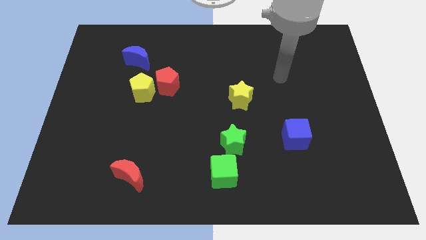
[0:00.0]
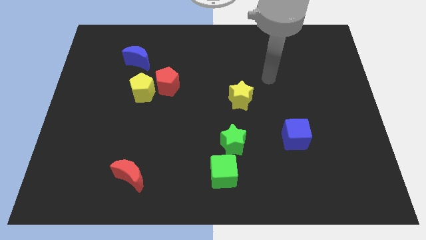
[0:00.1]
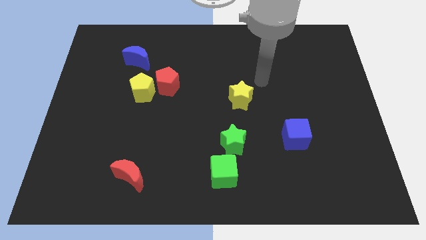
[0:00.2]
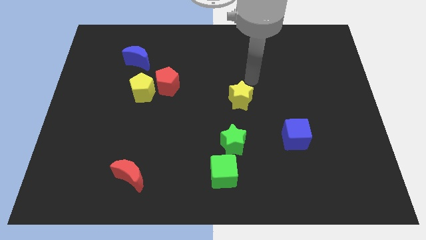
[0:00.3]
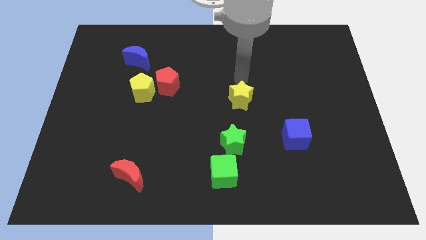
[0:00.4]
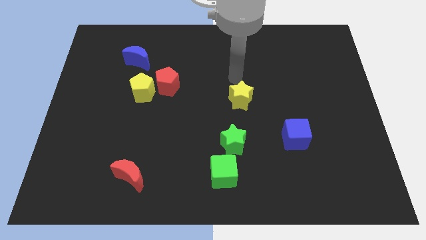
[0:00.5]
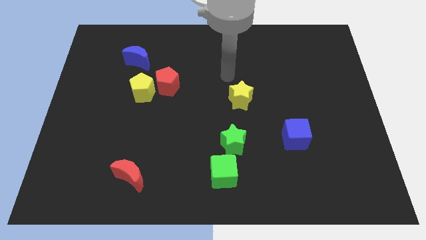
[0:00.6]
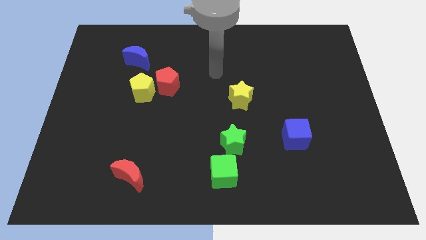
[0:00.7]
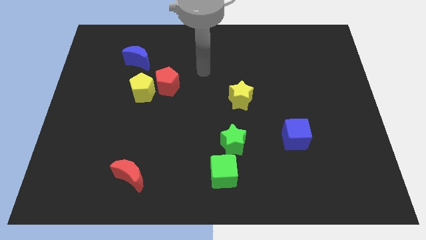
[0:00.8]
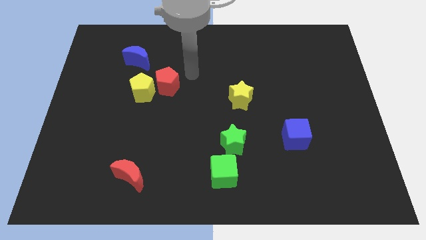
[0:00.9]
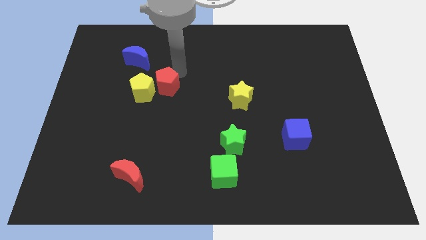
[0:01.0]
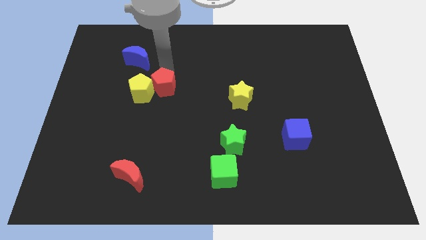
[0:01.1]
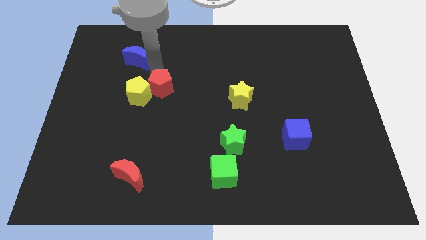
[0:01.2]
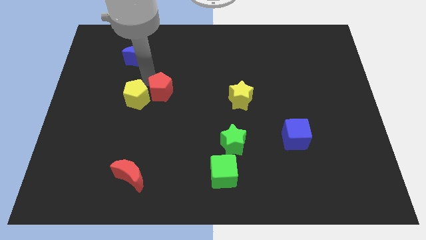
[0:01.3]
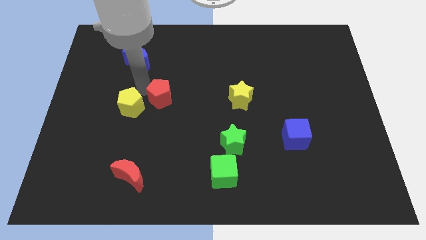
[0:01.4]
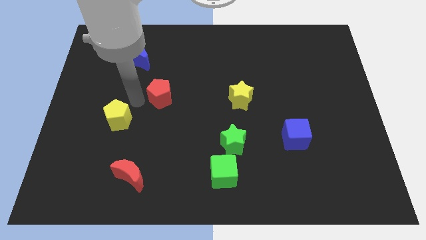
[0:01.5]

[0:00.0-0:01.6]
move the red pentagon away from the yellow pentagon

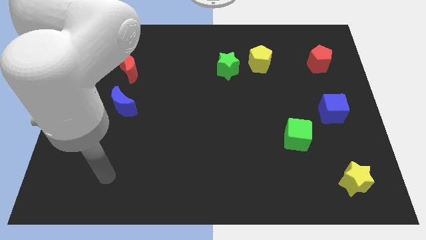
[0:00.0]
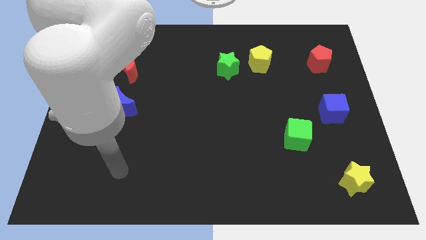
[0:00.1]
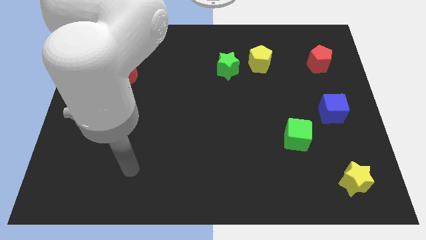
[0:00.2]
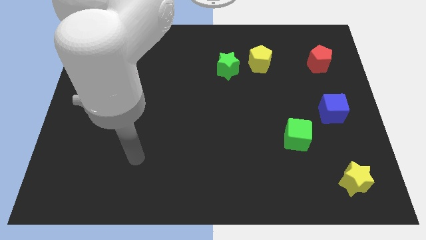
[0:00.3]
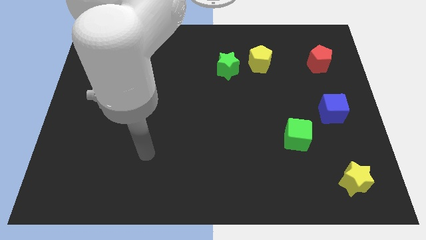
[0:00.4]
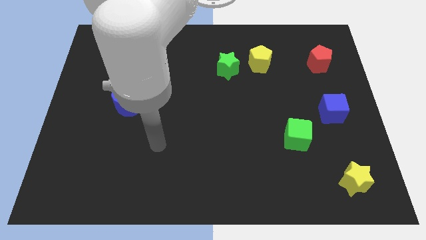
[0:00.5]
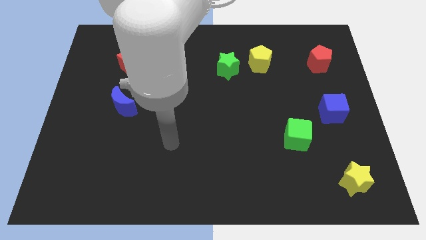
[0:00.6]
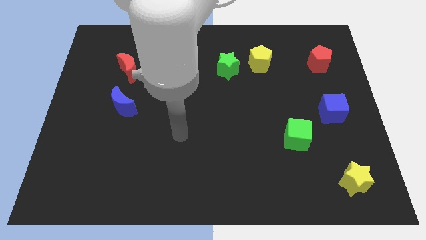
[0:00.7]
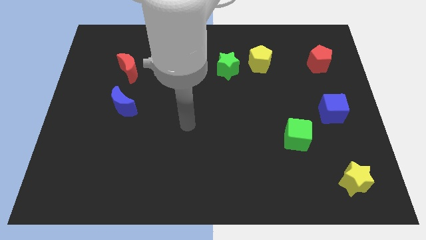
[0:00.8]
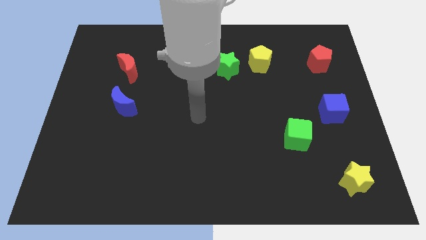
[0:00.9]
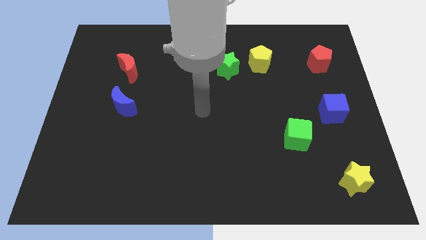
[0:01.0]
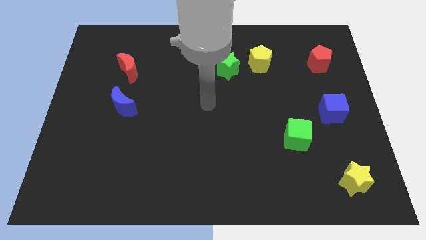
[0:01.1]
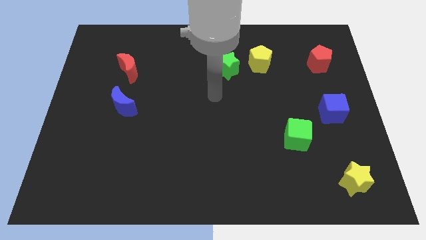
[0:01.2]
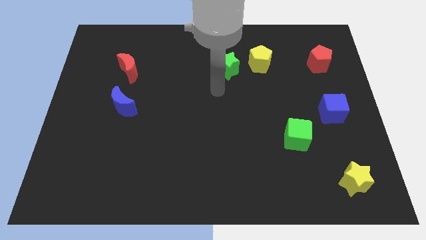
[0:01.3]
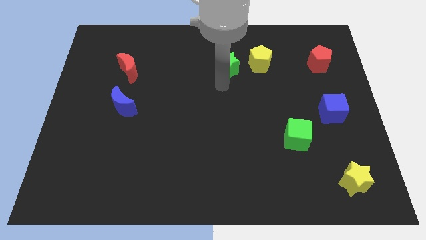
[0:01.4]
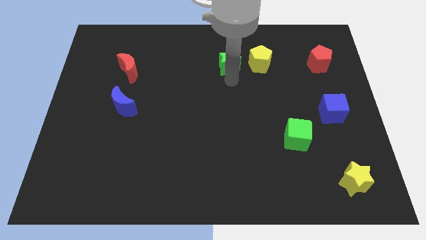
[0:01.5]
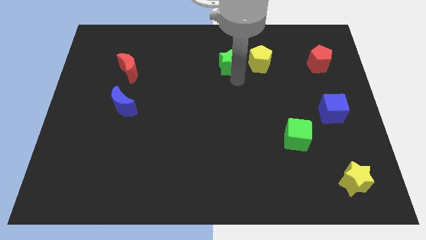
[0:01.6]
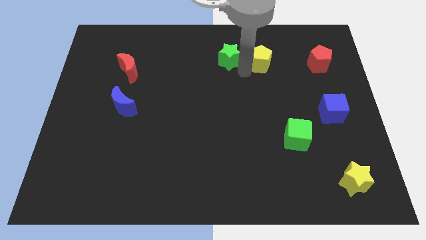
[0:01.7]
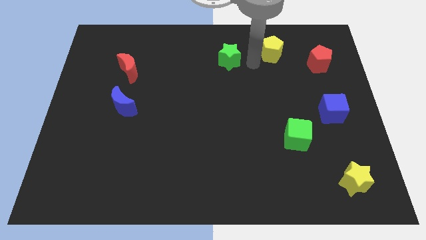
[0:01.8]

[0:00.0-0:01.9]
pull the green star apart from the yellow pentagon

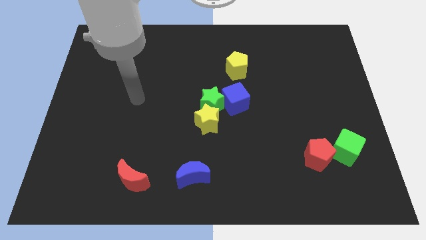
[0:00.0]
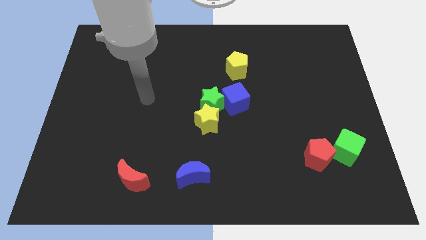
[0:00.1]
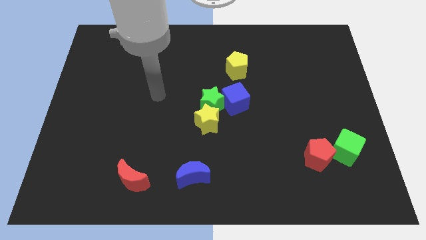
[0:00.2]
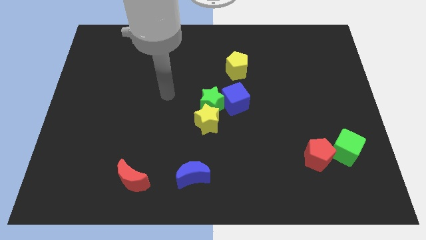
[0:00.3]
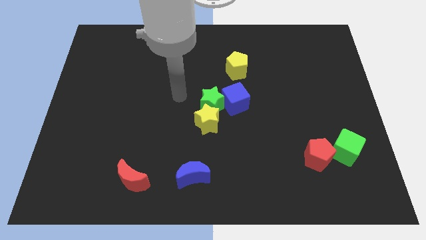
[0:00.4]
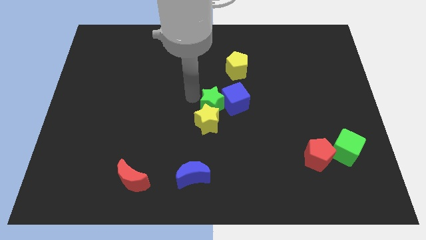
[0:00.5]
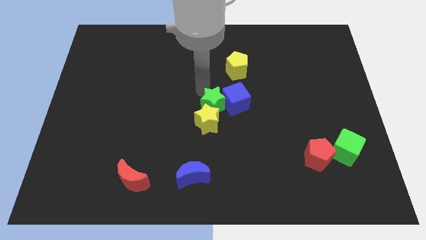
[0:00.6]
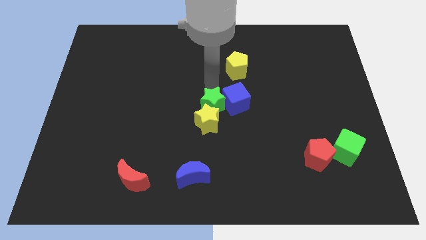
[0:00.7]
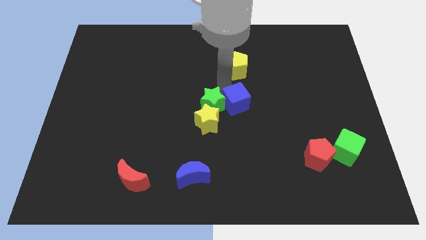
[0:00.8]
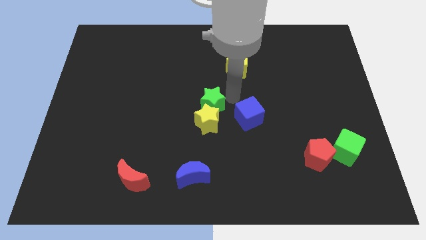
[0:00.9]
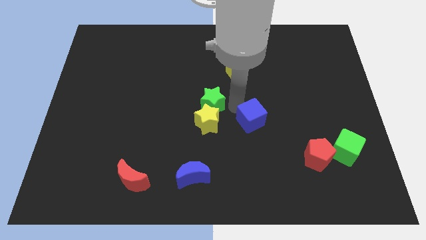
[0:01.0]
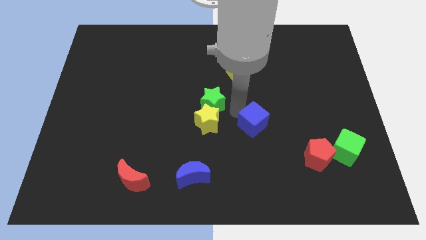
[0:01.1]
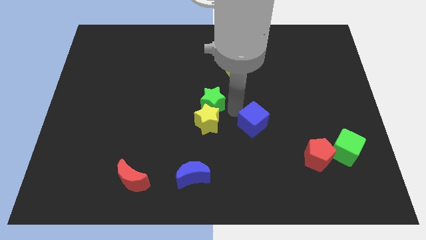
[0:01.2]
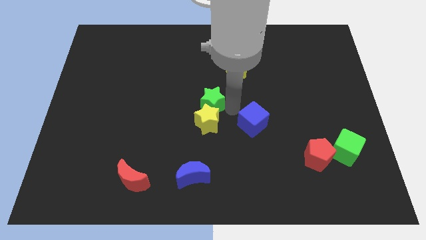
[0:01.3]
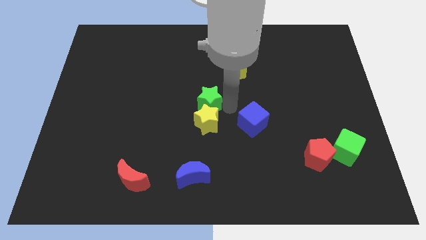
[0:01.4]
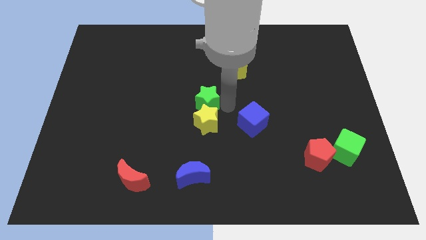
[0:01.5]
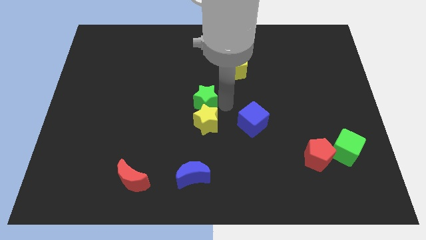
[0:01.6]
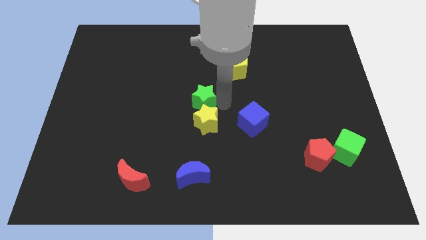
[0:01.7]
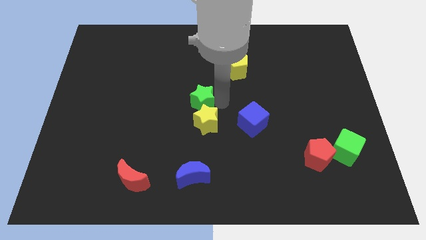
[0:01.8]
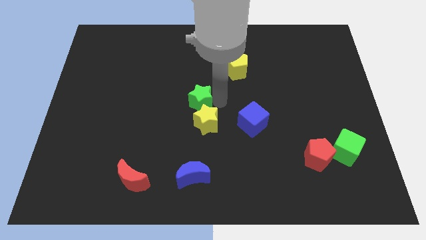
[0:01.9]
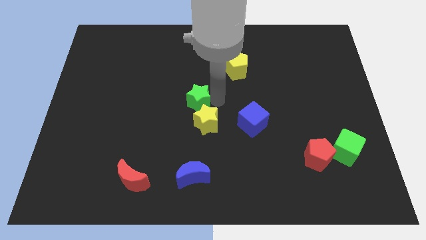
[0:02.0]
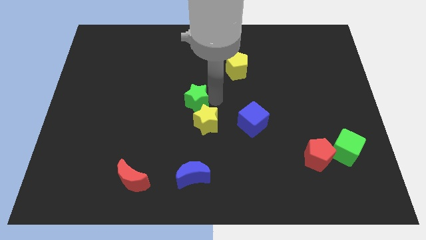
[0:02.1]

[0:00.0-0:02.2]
separate the green star from the yellow star and blue cube

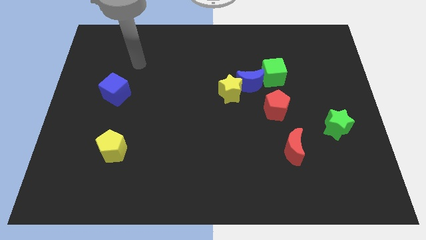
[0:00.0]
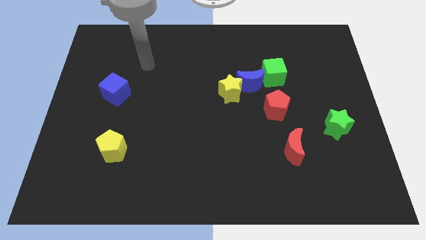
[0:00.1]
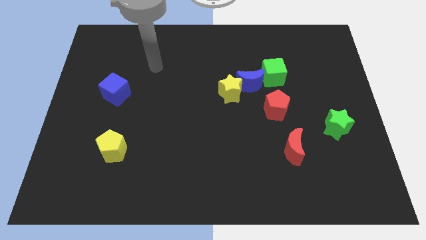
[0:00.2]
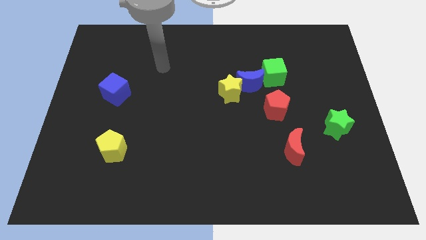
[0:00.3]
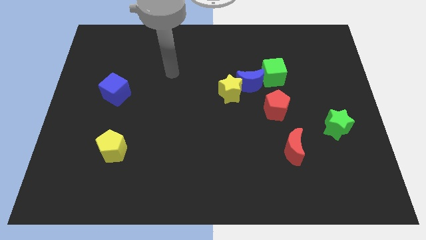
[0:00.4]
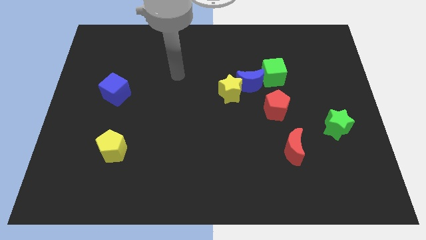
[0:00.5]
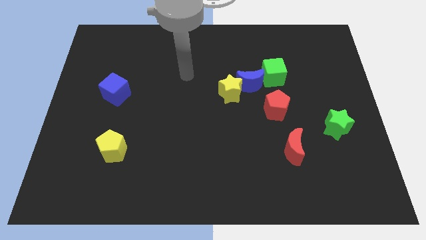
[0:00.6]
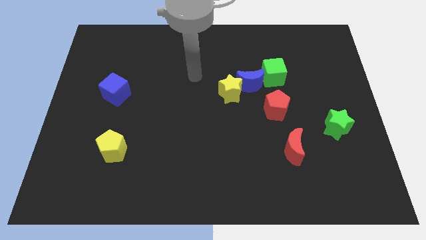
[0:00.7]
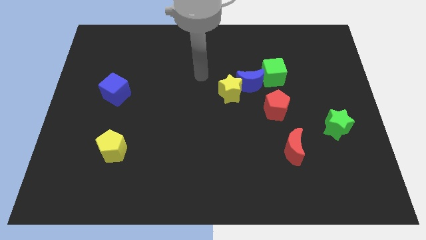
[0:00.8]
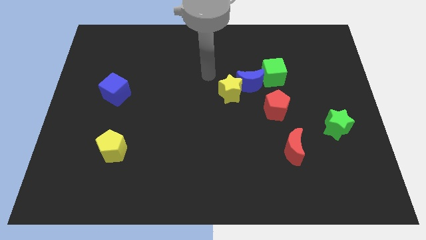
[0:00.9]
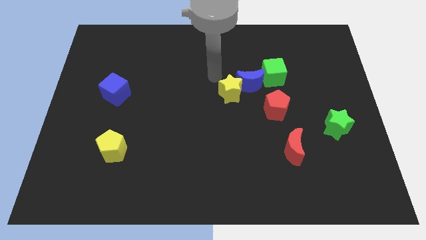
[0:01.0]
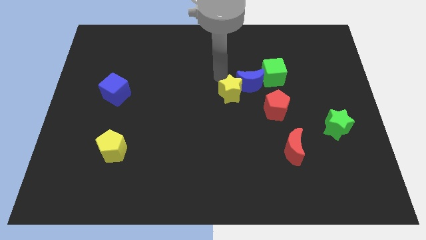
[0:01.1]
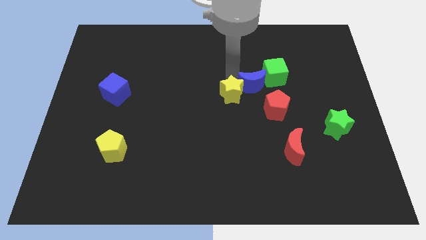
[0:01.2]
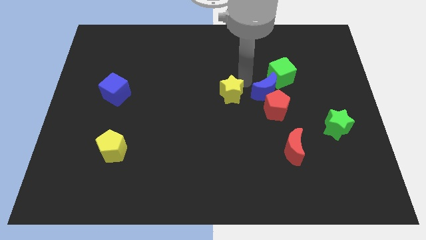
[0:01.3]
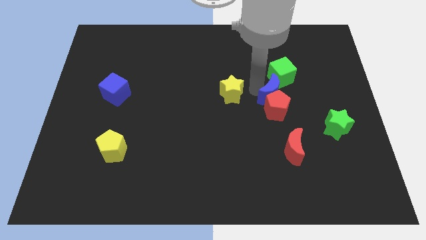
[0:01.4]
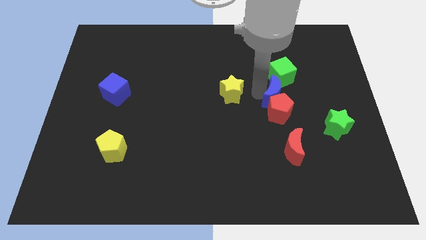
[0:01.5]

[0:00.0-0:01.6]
separate the yellow star from the blue moon

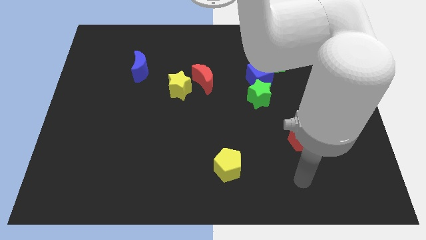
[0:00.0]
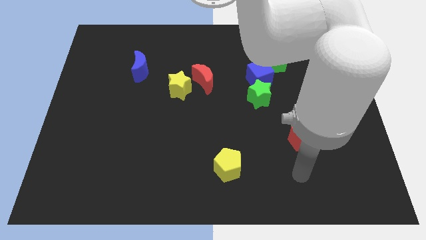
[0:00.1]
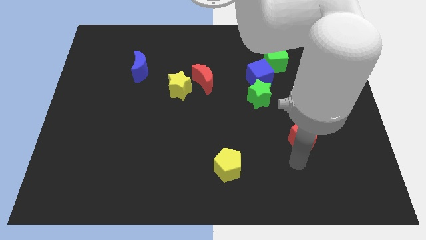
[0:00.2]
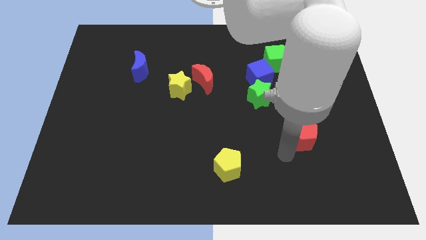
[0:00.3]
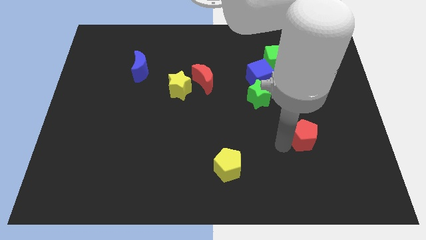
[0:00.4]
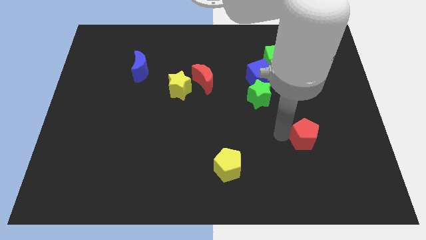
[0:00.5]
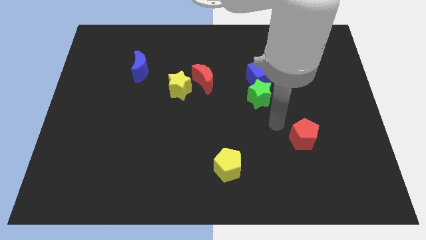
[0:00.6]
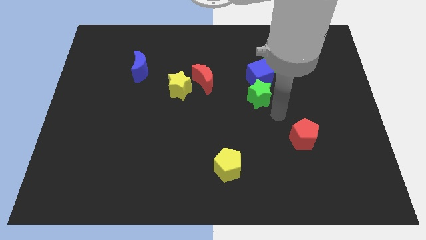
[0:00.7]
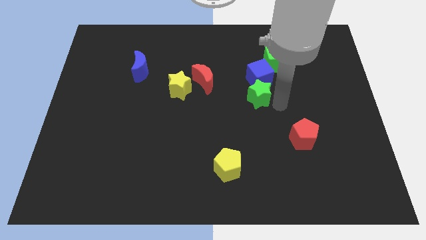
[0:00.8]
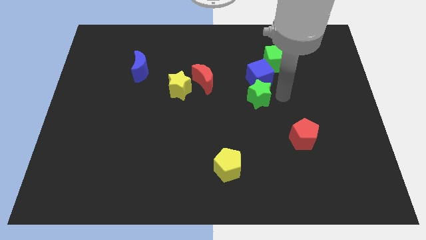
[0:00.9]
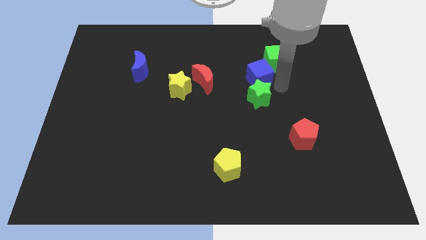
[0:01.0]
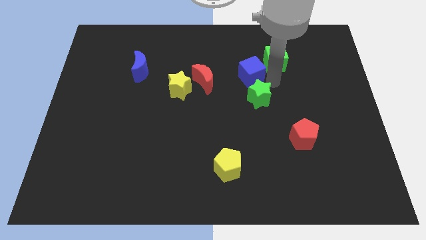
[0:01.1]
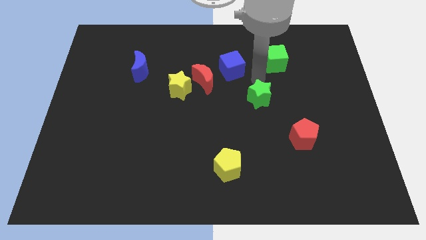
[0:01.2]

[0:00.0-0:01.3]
move the green star away from the blue cube

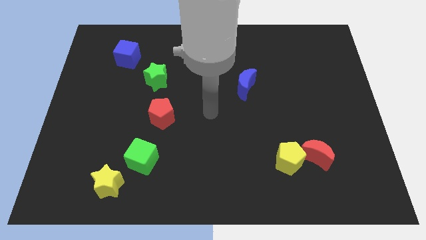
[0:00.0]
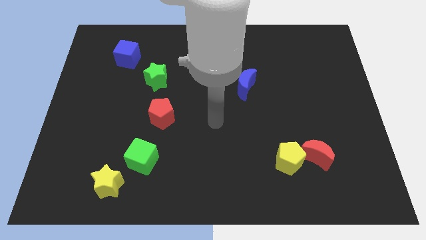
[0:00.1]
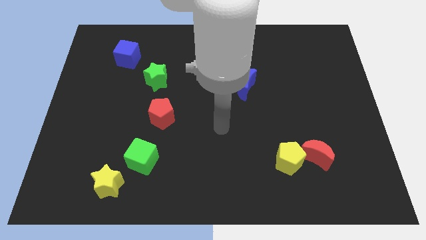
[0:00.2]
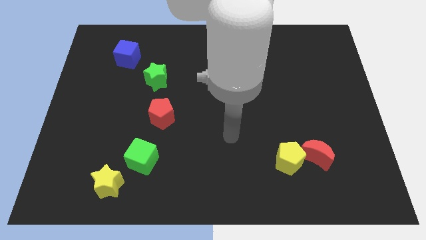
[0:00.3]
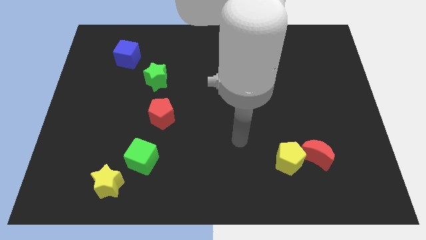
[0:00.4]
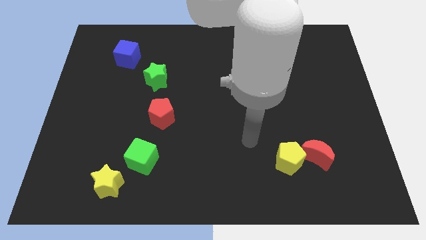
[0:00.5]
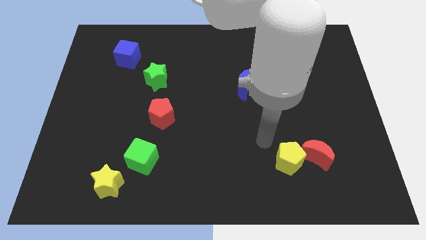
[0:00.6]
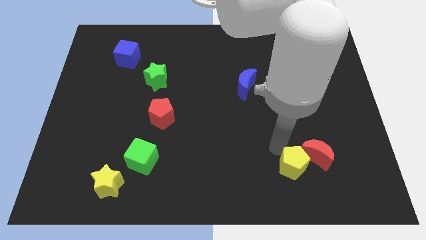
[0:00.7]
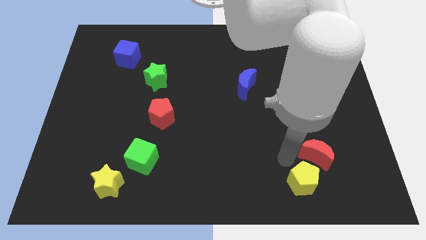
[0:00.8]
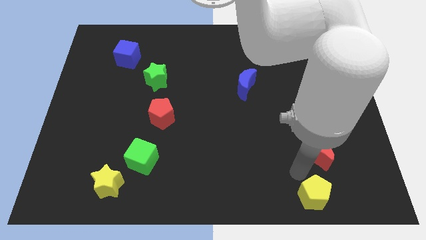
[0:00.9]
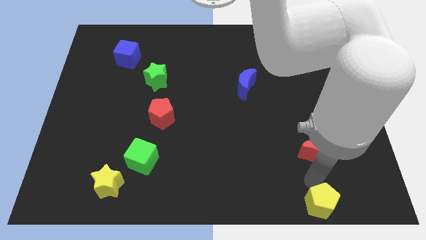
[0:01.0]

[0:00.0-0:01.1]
pull the red moon apart from the yellow pentagon
